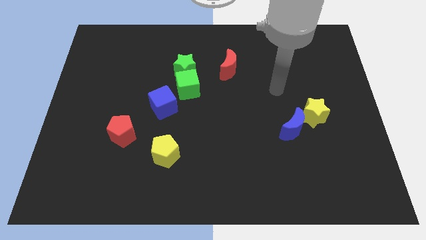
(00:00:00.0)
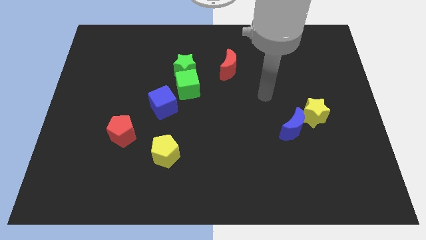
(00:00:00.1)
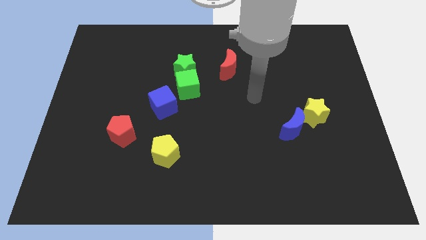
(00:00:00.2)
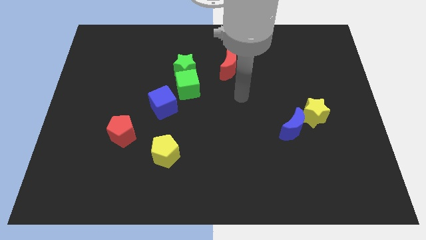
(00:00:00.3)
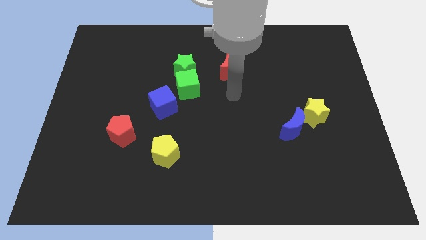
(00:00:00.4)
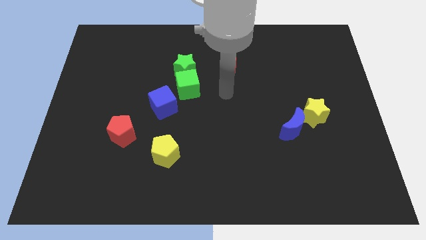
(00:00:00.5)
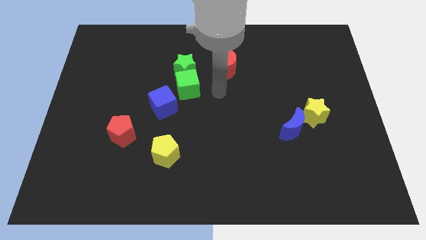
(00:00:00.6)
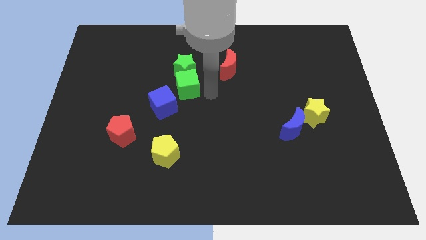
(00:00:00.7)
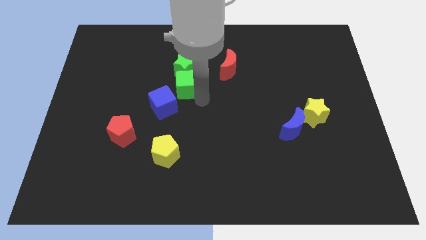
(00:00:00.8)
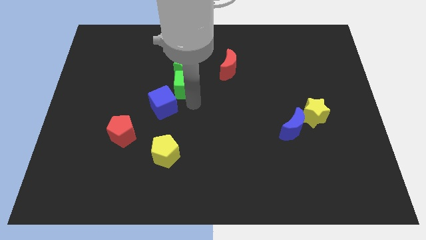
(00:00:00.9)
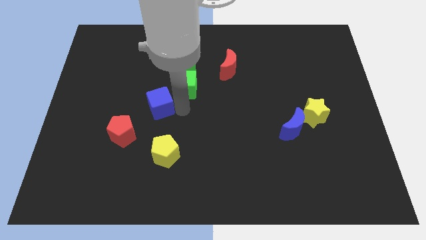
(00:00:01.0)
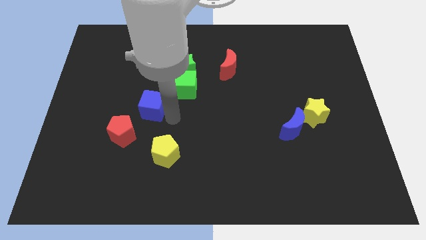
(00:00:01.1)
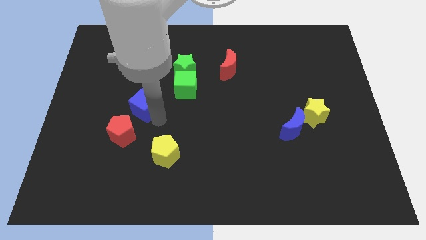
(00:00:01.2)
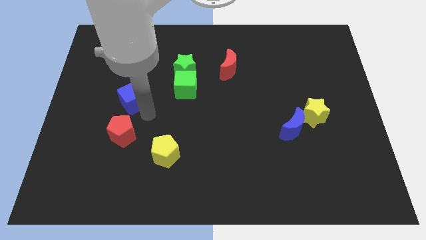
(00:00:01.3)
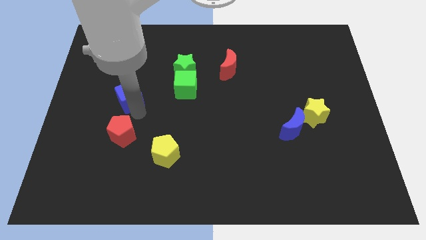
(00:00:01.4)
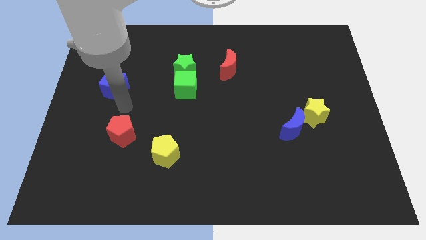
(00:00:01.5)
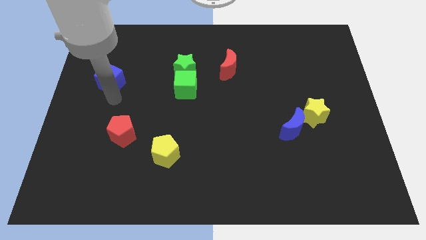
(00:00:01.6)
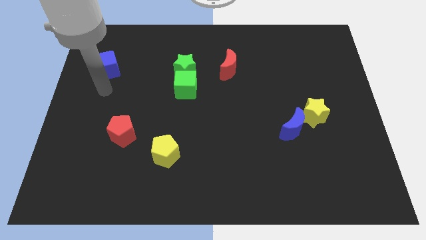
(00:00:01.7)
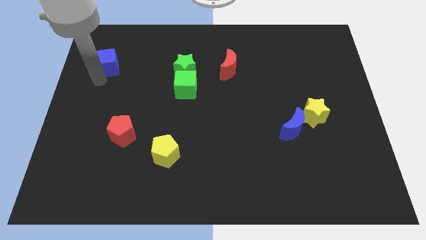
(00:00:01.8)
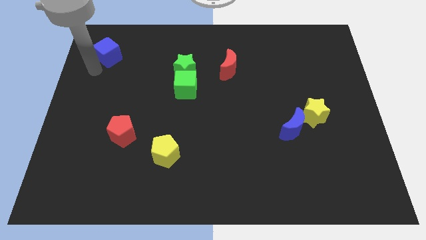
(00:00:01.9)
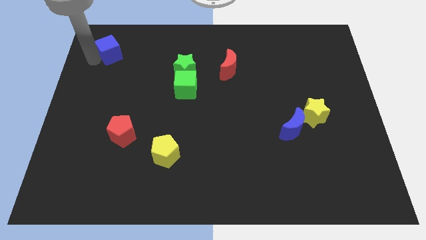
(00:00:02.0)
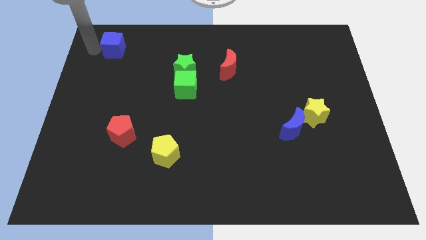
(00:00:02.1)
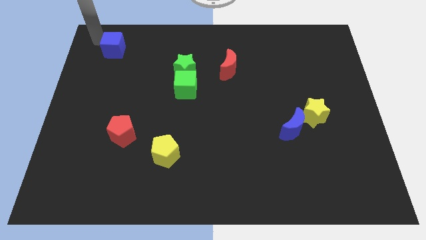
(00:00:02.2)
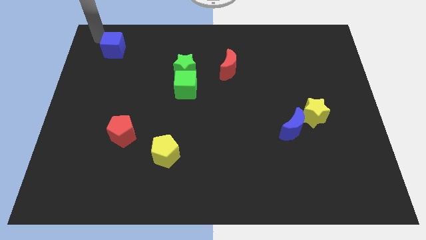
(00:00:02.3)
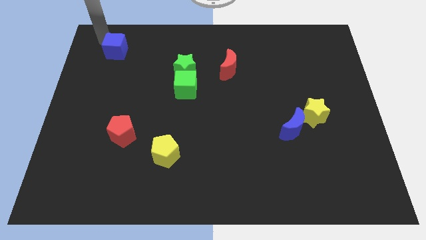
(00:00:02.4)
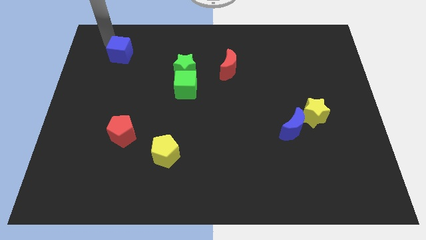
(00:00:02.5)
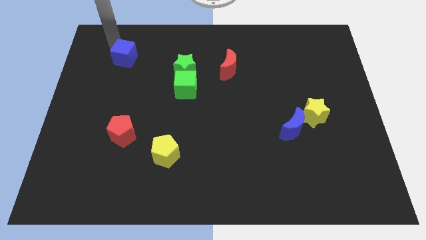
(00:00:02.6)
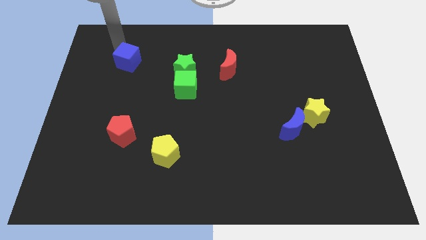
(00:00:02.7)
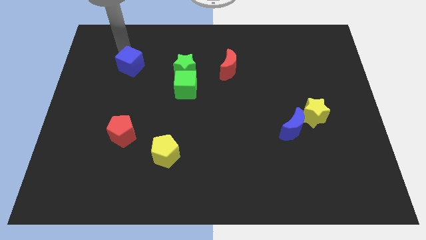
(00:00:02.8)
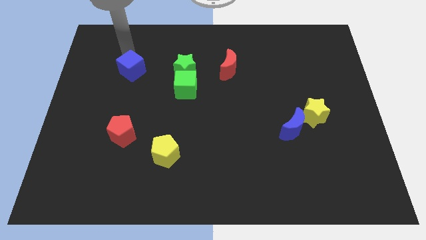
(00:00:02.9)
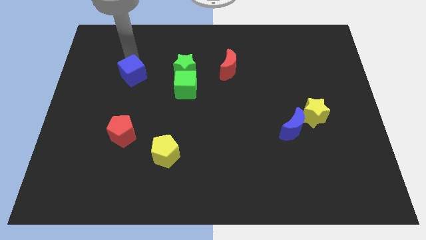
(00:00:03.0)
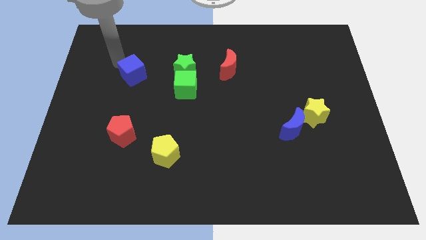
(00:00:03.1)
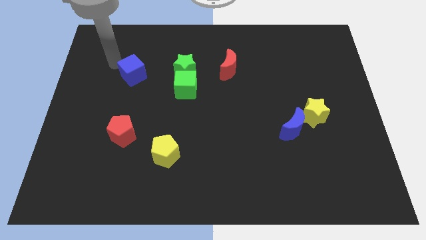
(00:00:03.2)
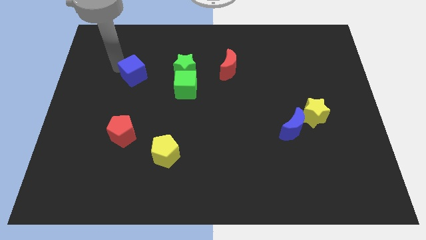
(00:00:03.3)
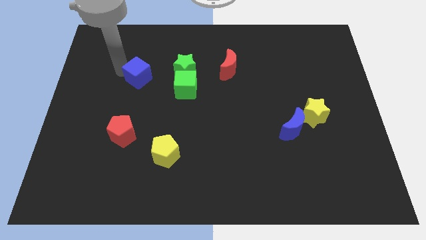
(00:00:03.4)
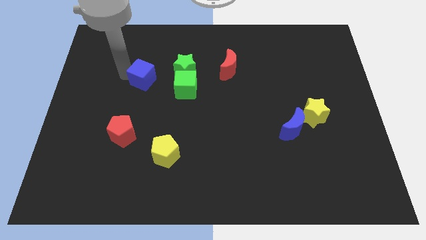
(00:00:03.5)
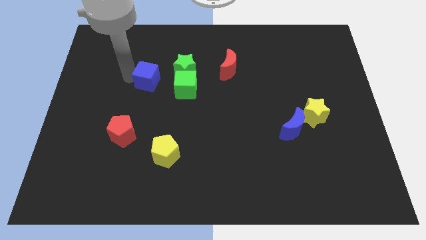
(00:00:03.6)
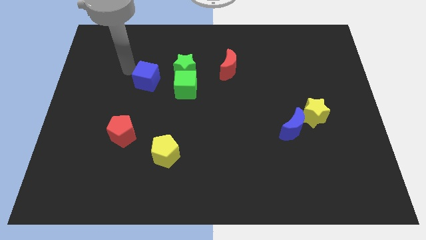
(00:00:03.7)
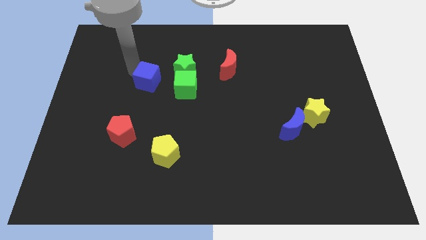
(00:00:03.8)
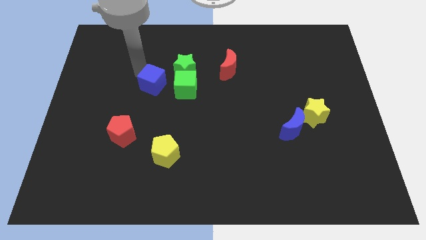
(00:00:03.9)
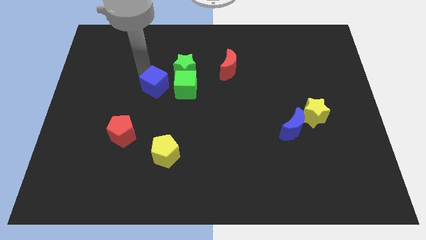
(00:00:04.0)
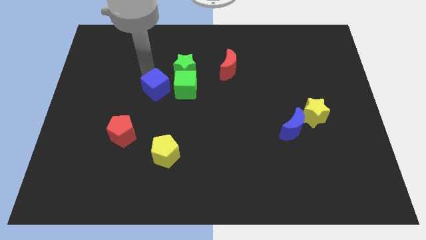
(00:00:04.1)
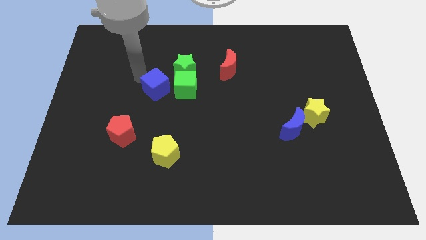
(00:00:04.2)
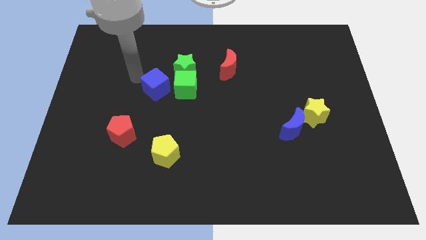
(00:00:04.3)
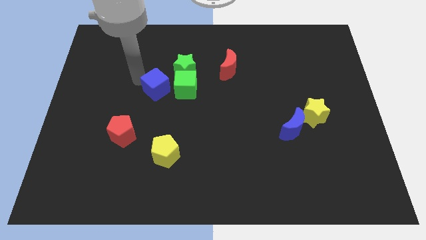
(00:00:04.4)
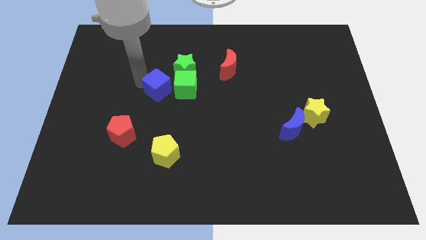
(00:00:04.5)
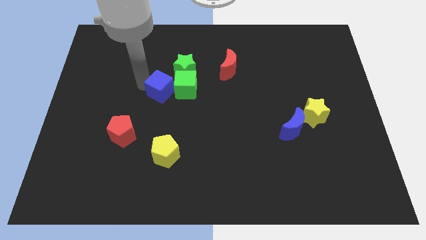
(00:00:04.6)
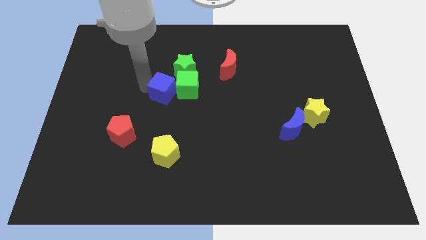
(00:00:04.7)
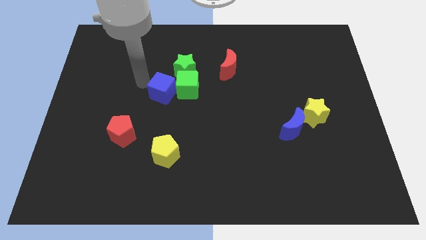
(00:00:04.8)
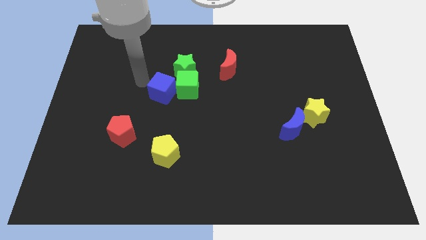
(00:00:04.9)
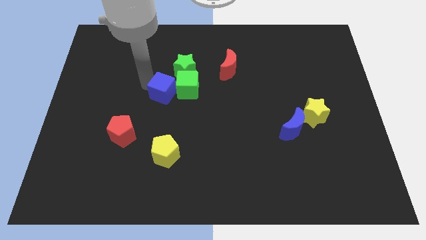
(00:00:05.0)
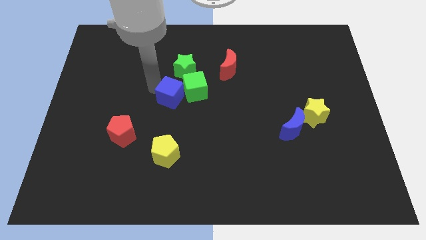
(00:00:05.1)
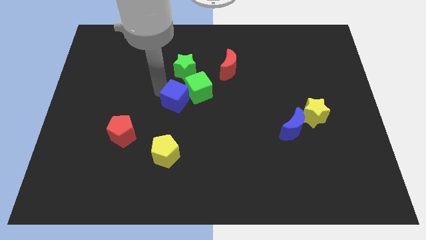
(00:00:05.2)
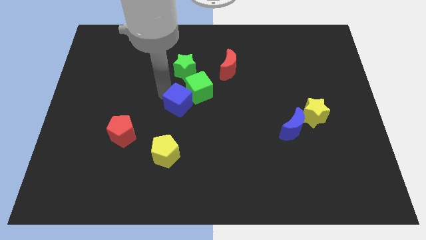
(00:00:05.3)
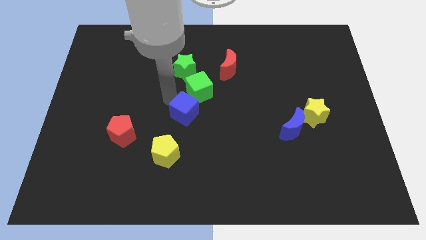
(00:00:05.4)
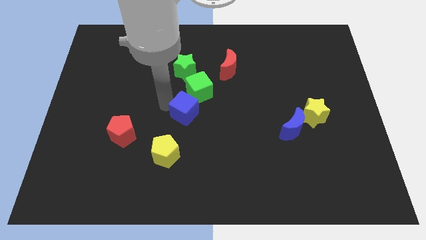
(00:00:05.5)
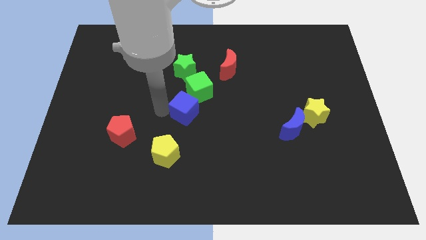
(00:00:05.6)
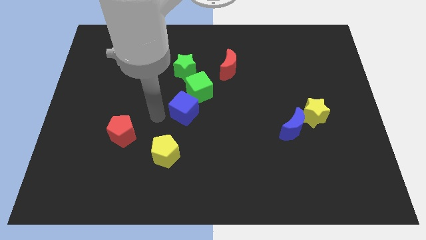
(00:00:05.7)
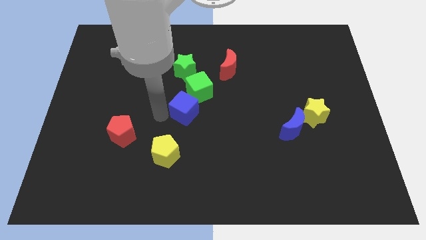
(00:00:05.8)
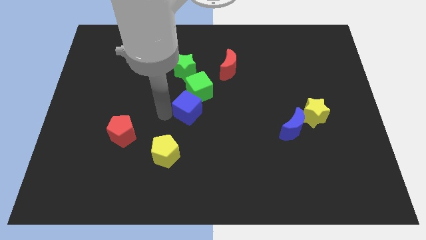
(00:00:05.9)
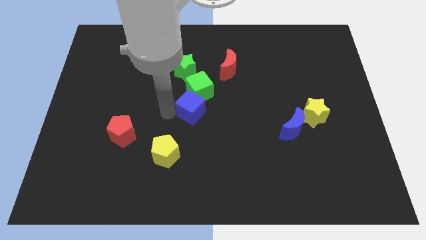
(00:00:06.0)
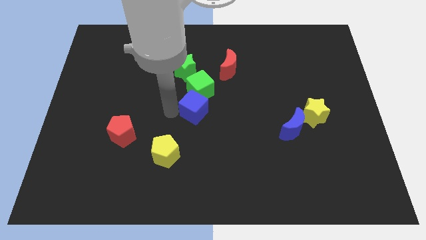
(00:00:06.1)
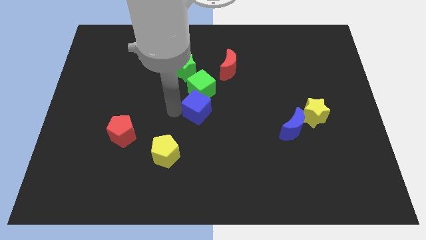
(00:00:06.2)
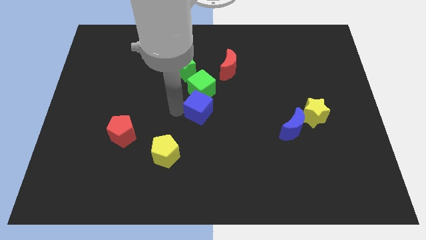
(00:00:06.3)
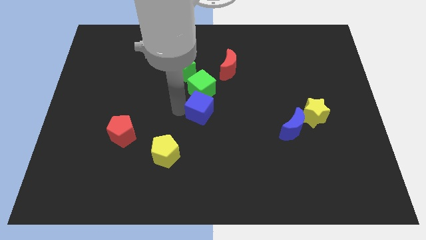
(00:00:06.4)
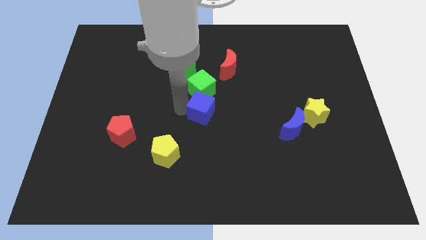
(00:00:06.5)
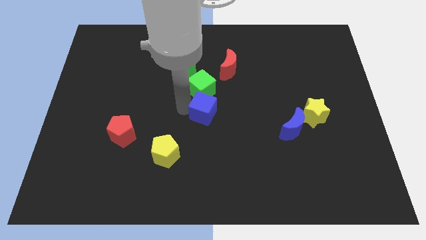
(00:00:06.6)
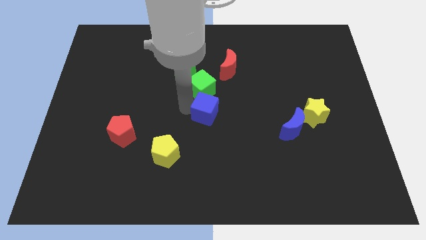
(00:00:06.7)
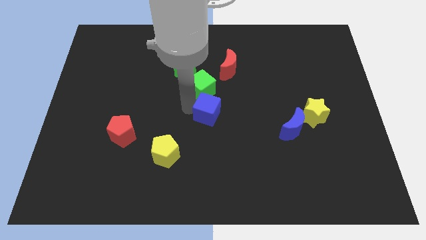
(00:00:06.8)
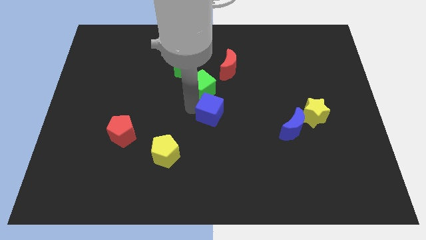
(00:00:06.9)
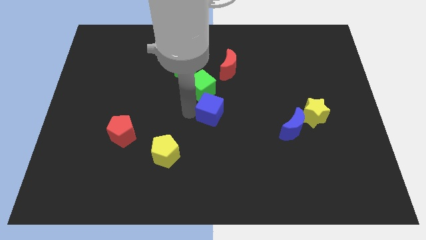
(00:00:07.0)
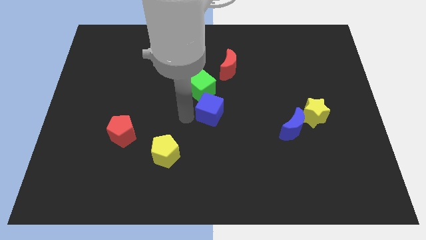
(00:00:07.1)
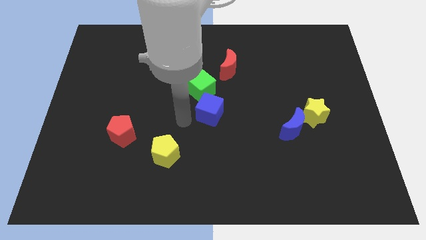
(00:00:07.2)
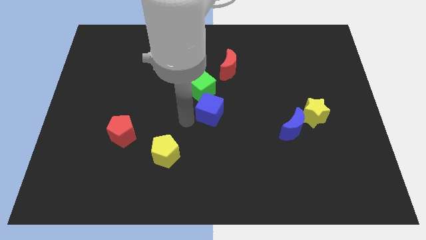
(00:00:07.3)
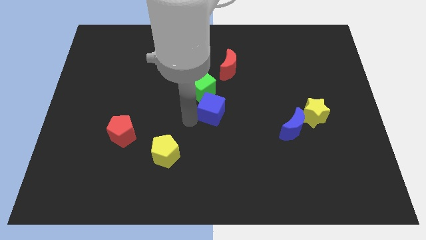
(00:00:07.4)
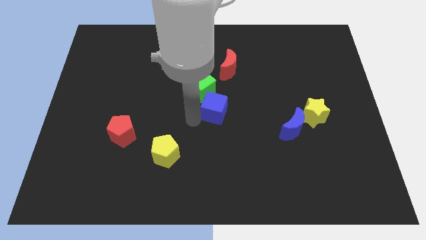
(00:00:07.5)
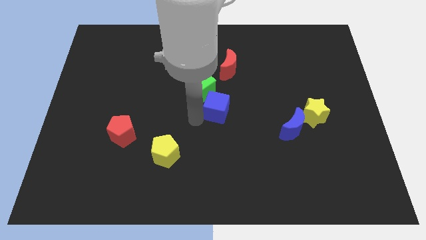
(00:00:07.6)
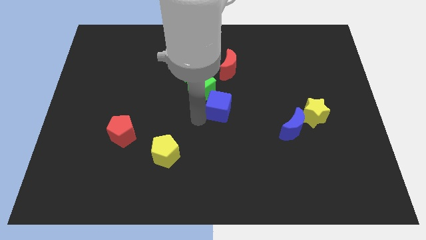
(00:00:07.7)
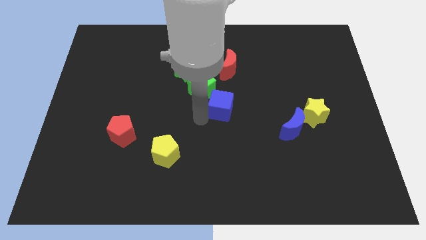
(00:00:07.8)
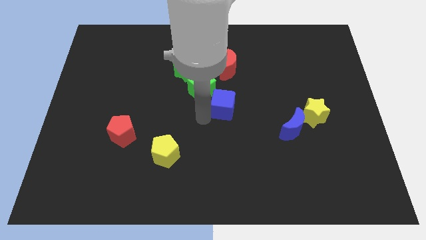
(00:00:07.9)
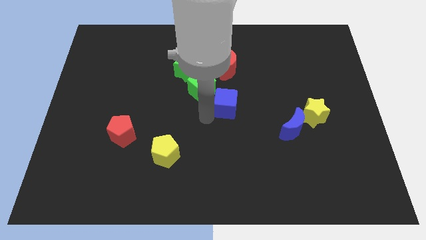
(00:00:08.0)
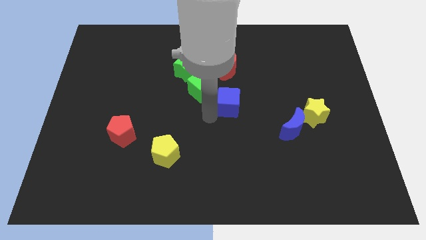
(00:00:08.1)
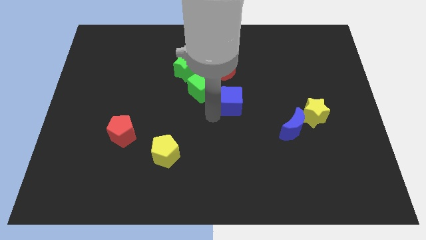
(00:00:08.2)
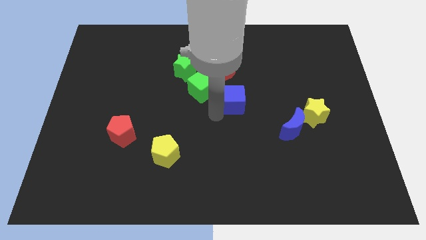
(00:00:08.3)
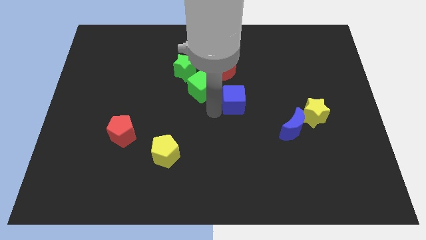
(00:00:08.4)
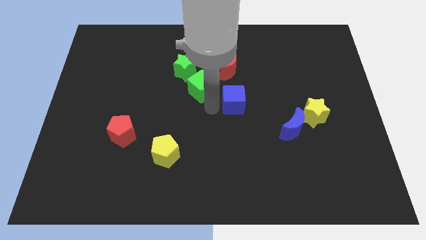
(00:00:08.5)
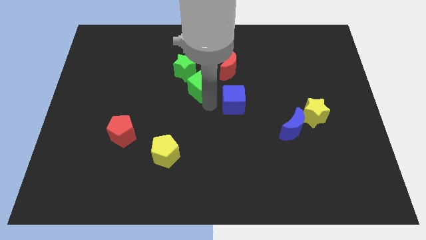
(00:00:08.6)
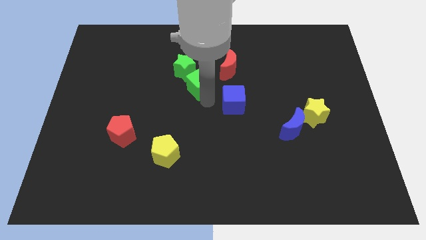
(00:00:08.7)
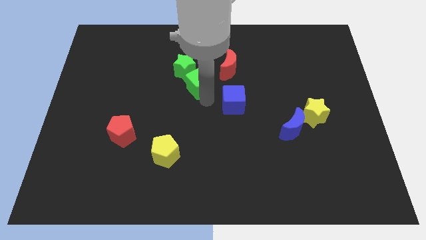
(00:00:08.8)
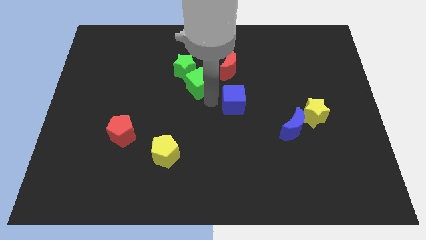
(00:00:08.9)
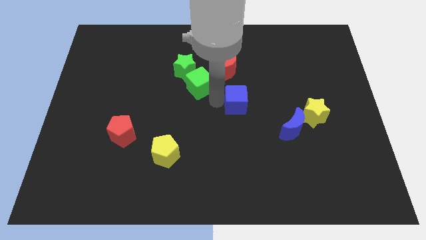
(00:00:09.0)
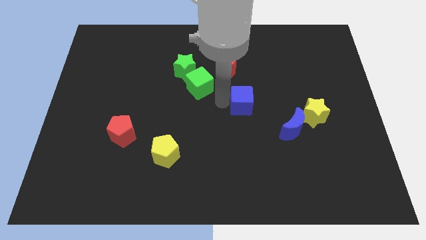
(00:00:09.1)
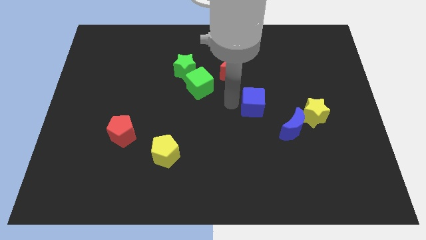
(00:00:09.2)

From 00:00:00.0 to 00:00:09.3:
move the blue cube right
